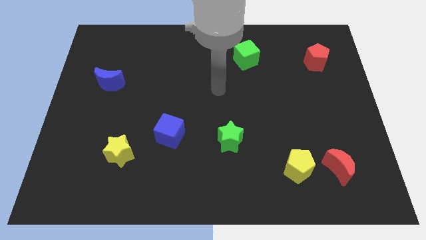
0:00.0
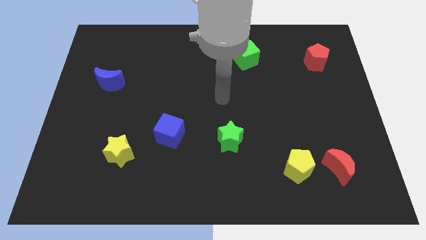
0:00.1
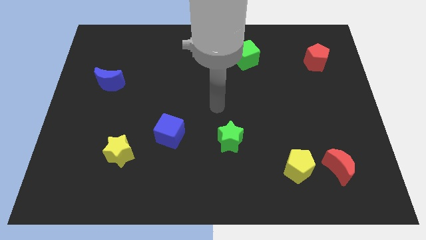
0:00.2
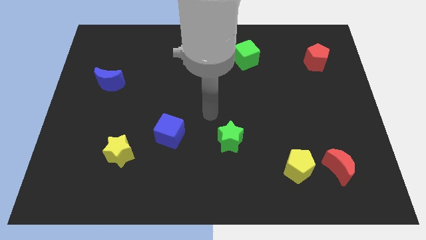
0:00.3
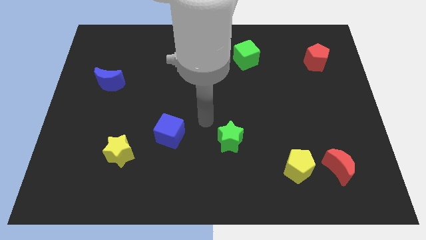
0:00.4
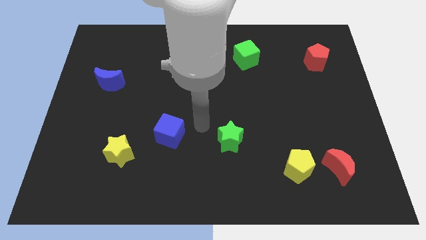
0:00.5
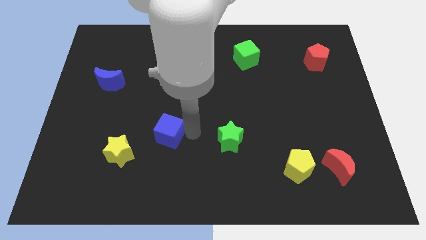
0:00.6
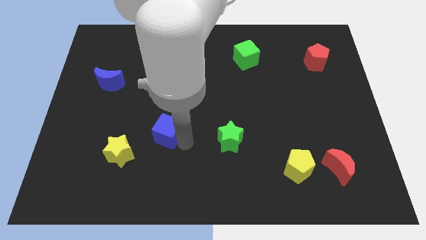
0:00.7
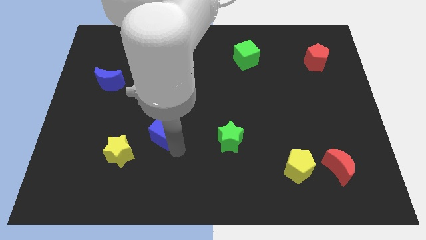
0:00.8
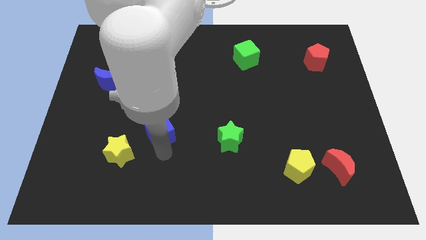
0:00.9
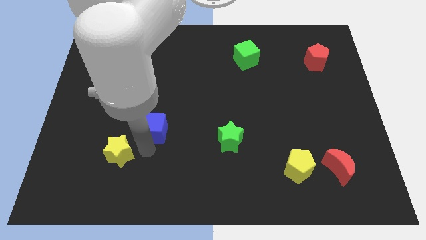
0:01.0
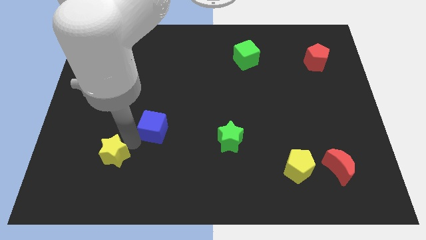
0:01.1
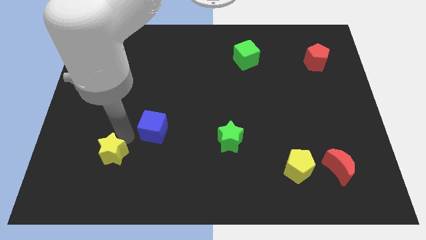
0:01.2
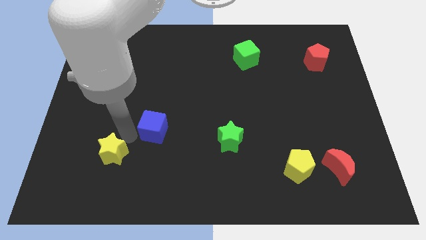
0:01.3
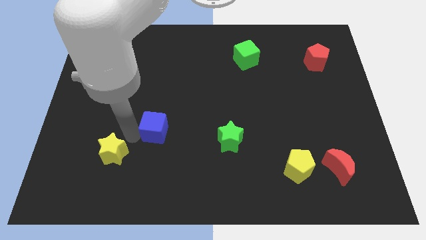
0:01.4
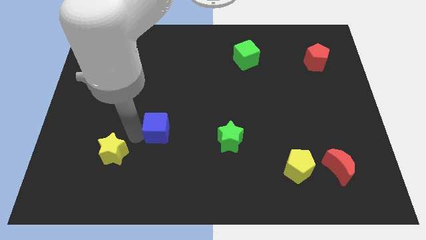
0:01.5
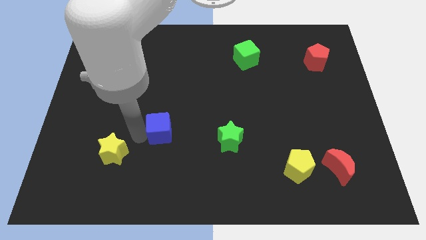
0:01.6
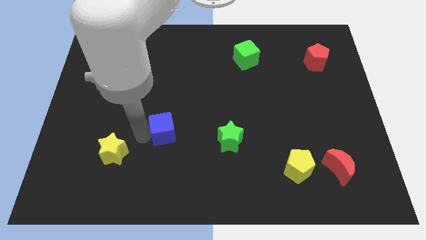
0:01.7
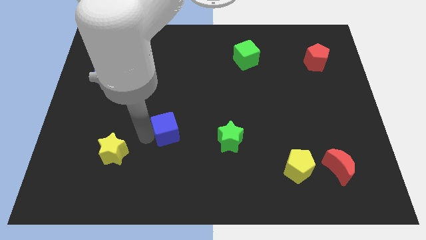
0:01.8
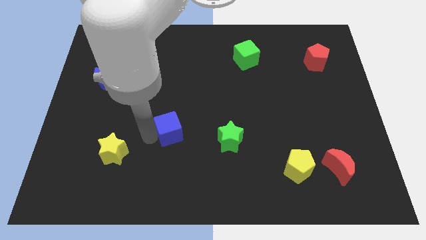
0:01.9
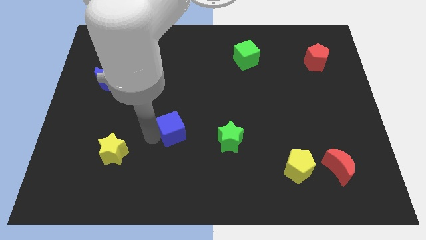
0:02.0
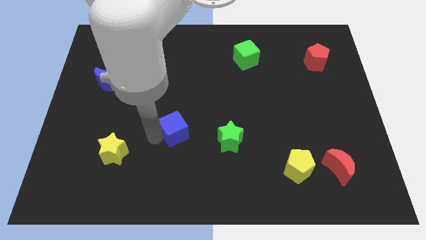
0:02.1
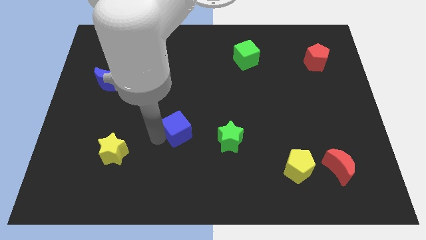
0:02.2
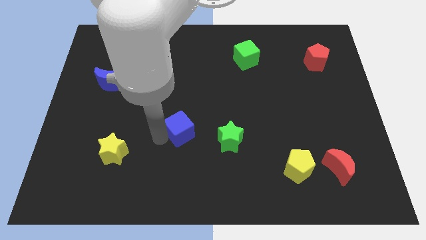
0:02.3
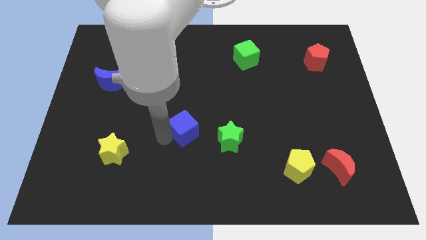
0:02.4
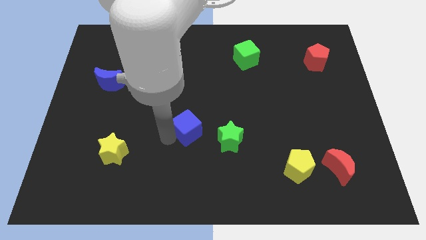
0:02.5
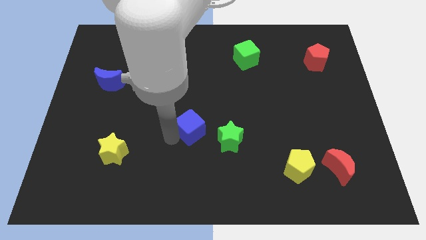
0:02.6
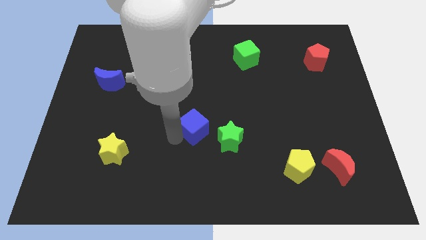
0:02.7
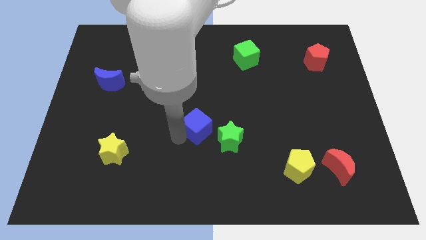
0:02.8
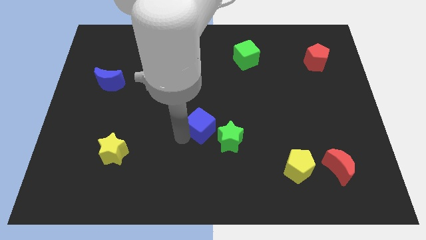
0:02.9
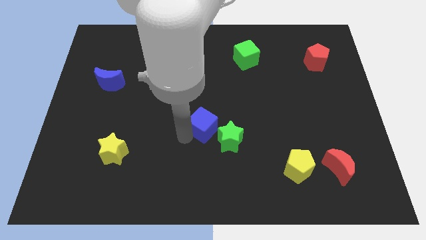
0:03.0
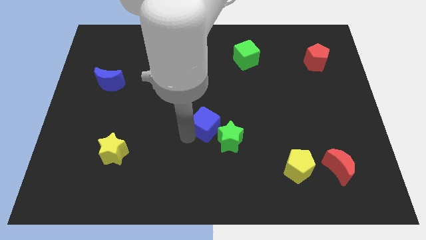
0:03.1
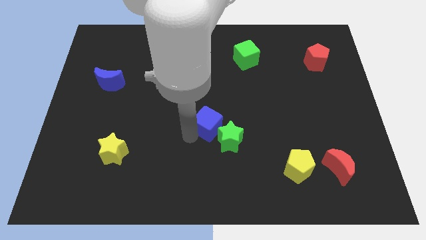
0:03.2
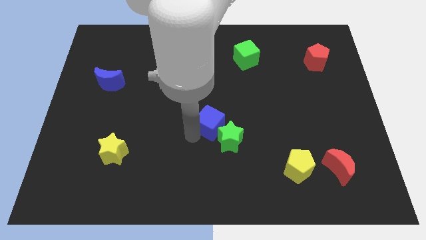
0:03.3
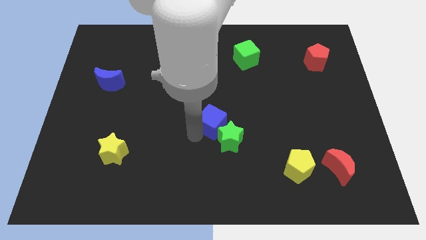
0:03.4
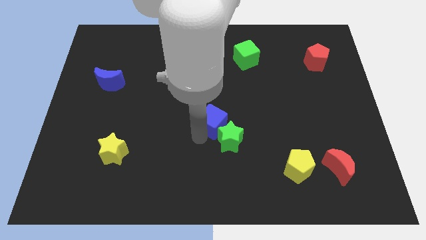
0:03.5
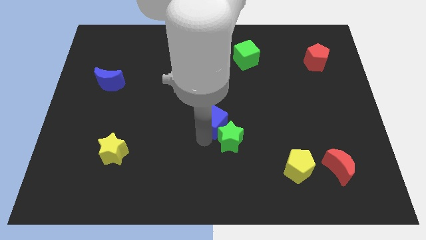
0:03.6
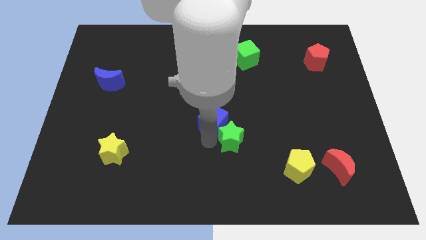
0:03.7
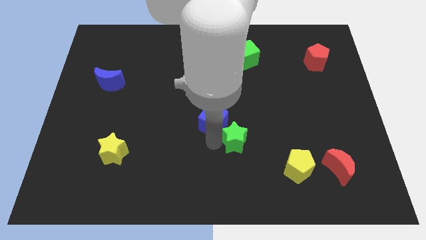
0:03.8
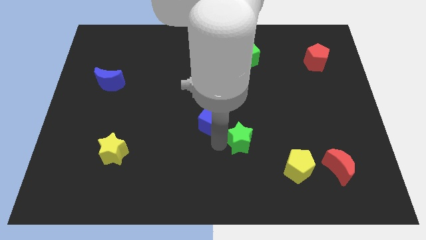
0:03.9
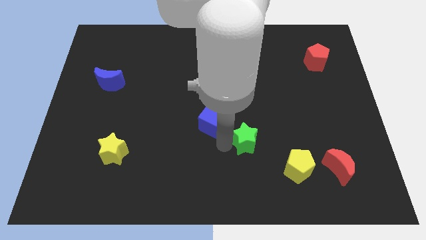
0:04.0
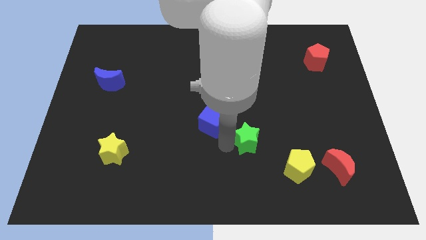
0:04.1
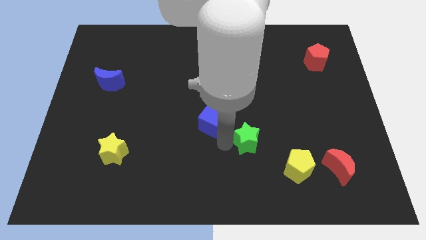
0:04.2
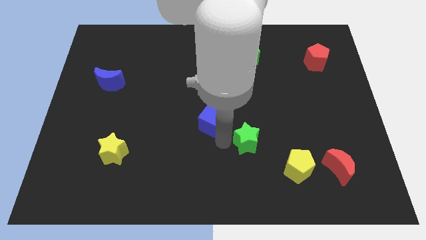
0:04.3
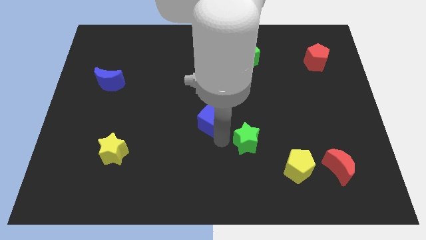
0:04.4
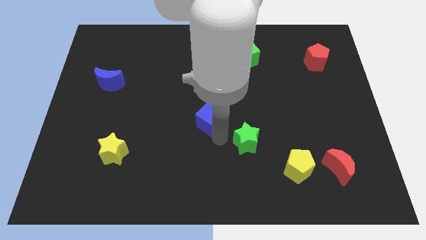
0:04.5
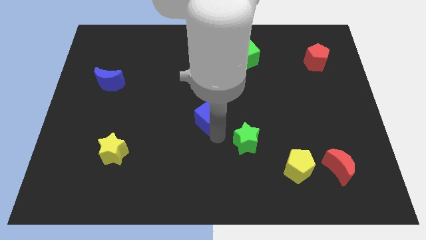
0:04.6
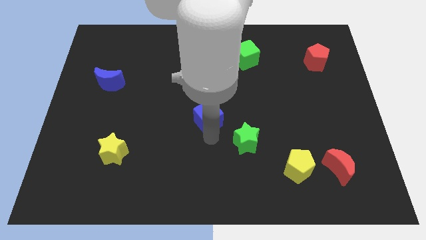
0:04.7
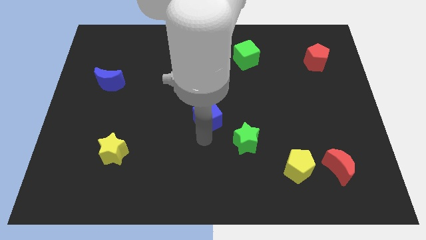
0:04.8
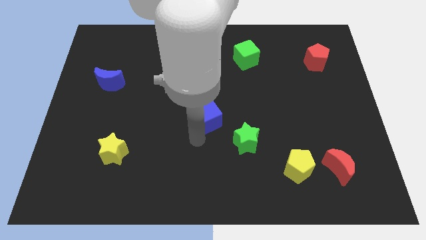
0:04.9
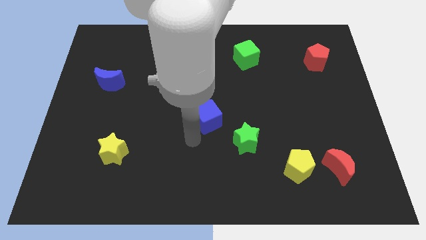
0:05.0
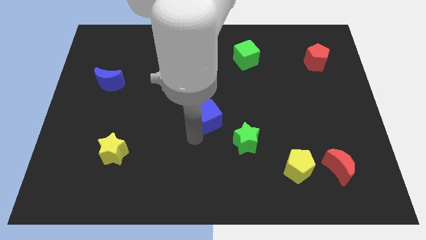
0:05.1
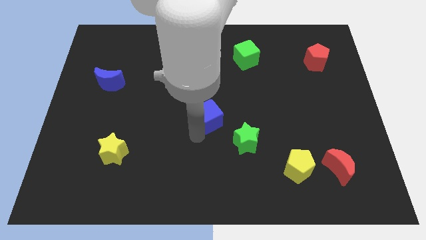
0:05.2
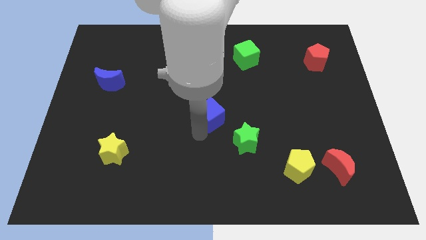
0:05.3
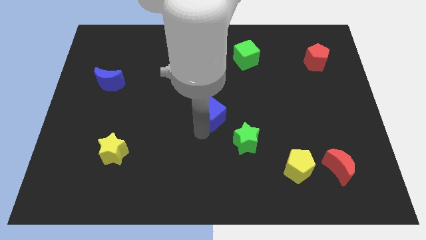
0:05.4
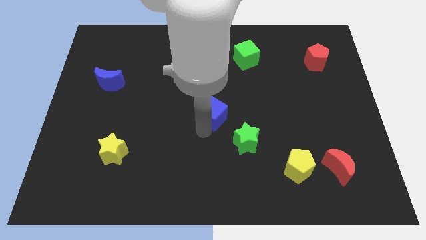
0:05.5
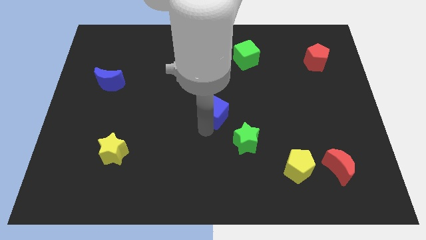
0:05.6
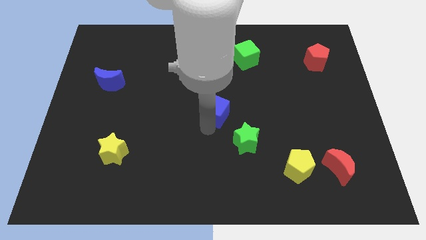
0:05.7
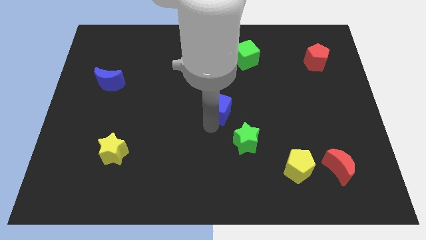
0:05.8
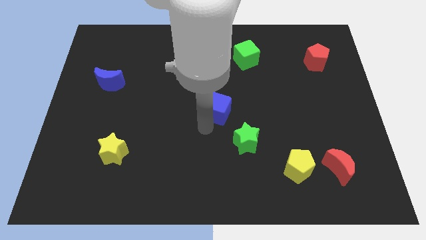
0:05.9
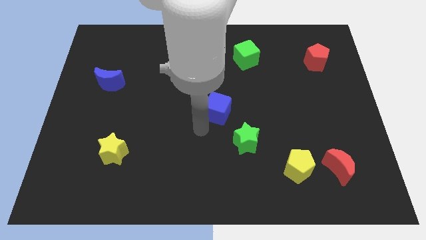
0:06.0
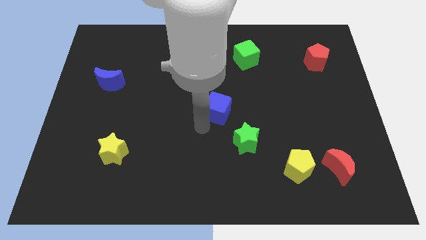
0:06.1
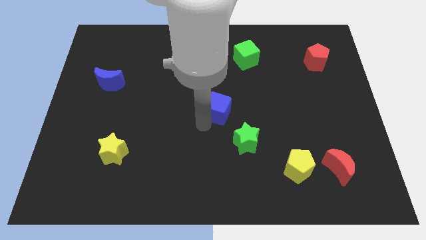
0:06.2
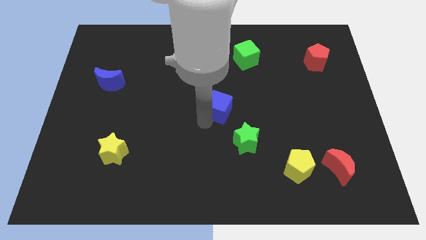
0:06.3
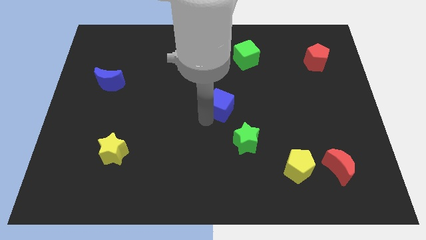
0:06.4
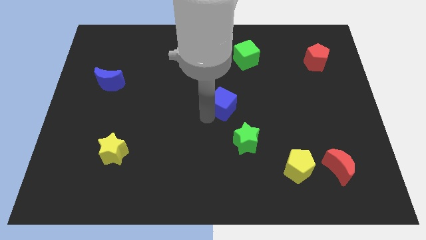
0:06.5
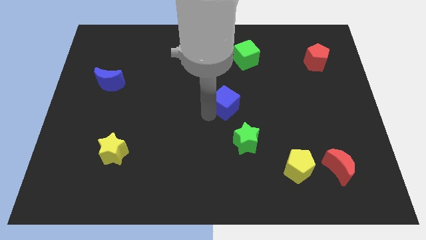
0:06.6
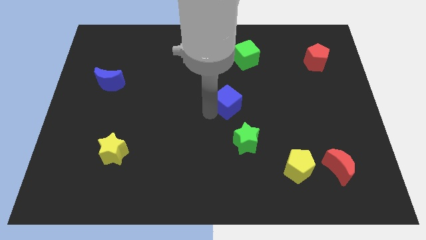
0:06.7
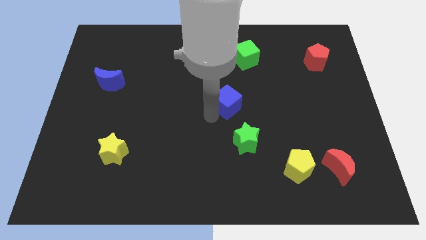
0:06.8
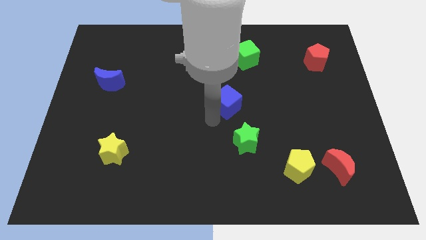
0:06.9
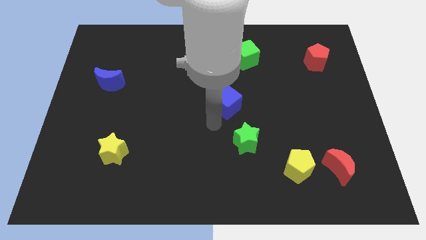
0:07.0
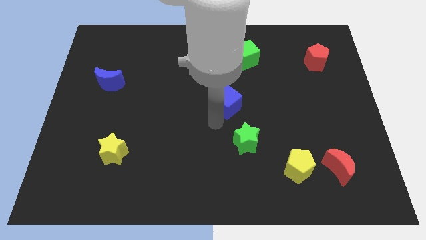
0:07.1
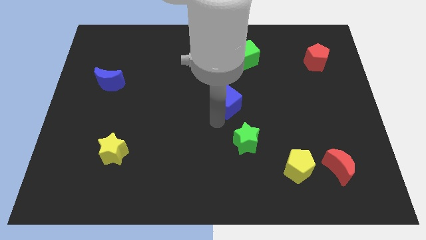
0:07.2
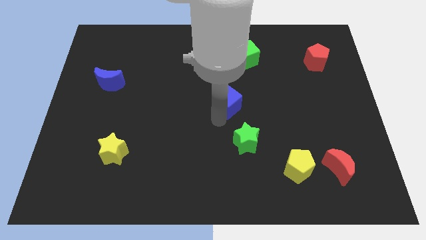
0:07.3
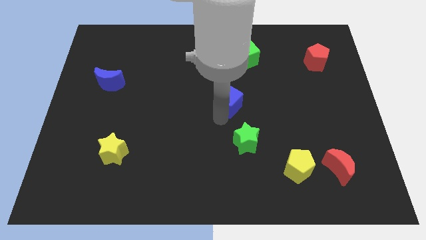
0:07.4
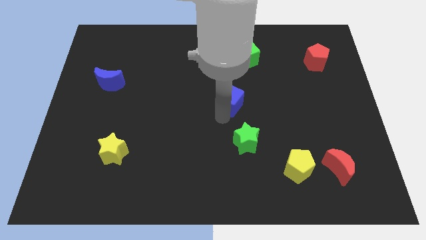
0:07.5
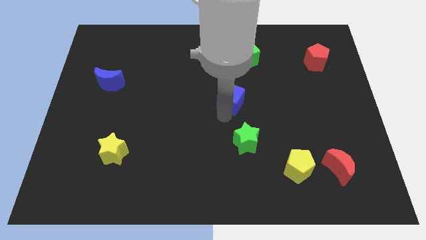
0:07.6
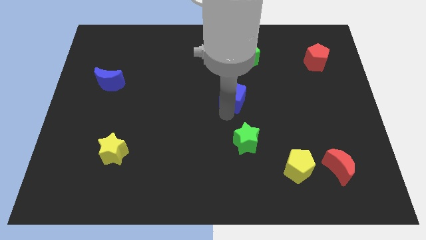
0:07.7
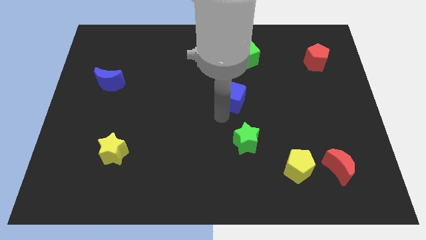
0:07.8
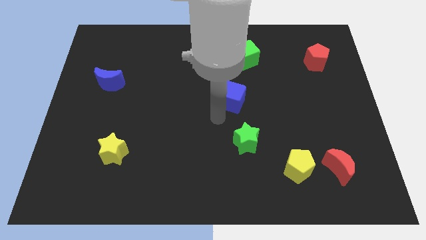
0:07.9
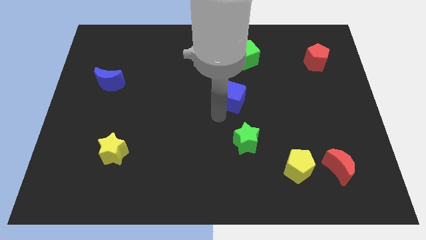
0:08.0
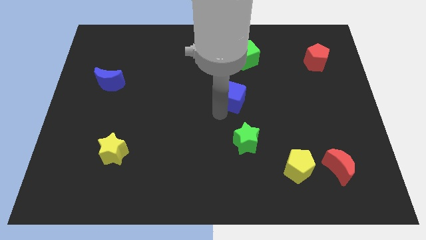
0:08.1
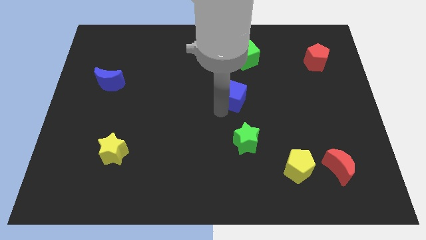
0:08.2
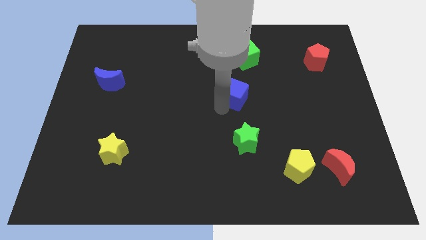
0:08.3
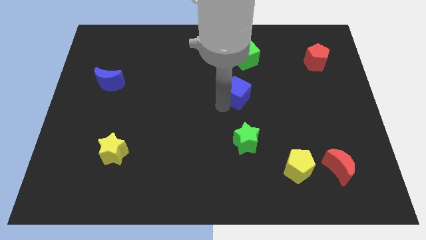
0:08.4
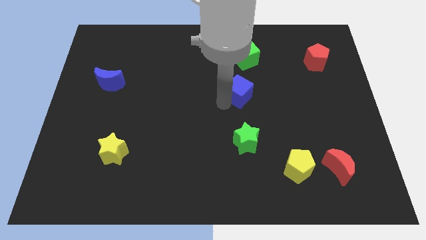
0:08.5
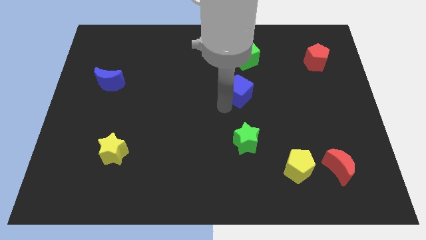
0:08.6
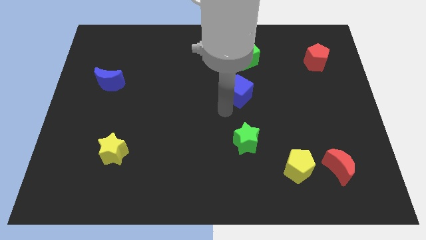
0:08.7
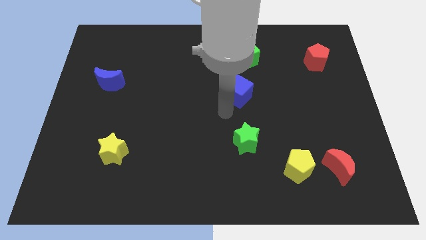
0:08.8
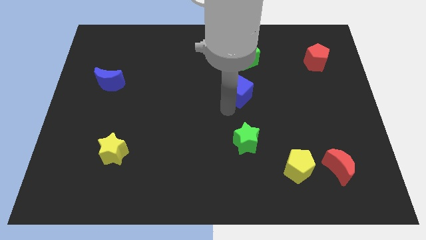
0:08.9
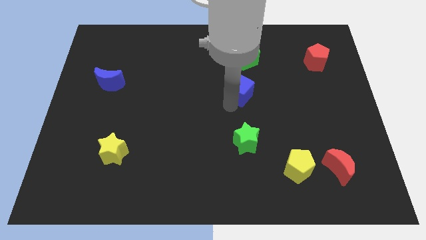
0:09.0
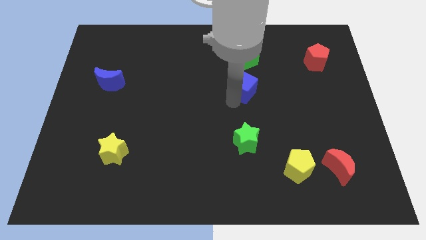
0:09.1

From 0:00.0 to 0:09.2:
move the blue cube diagonally upwards and to the right
